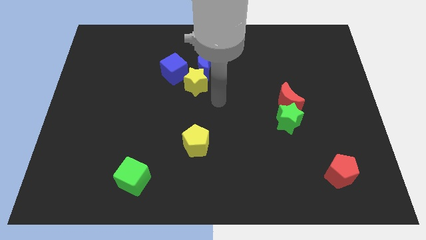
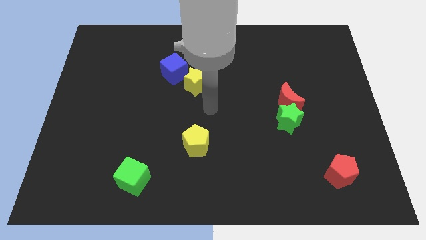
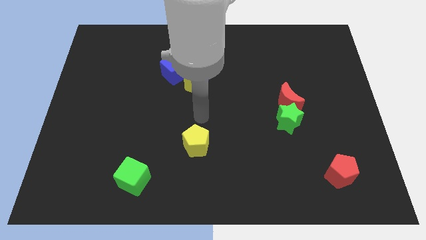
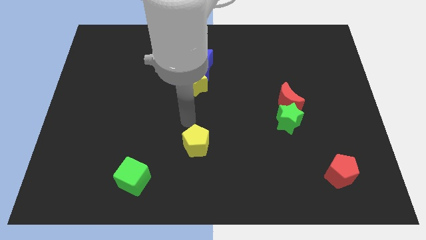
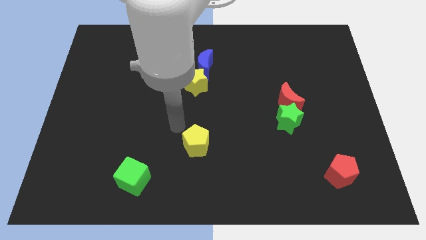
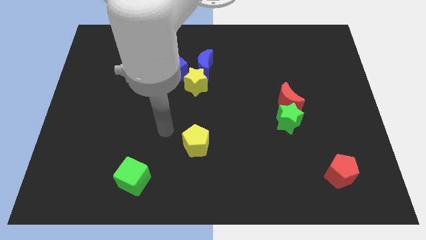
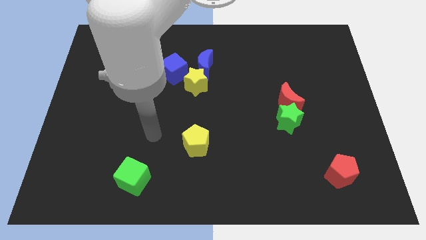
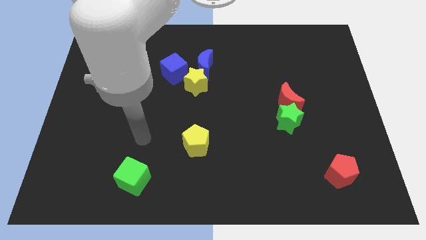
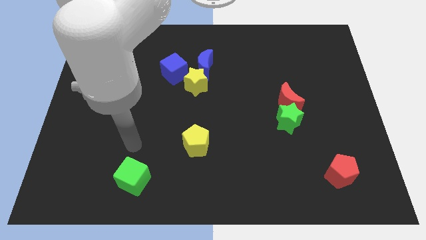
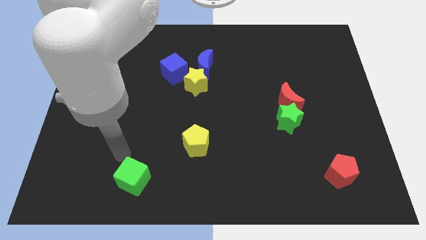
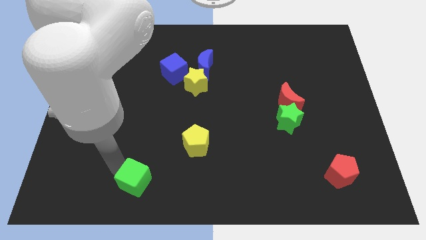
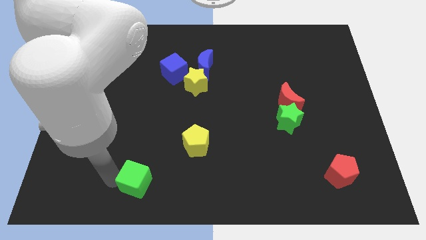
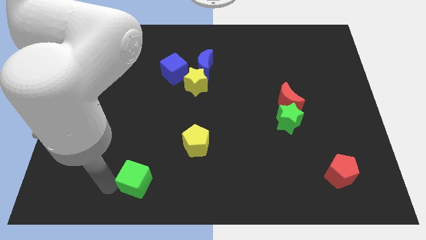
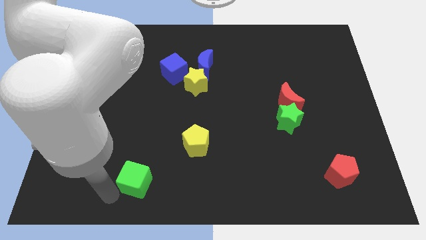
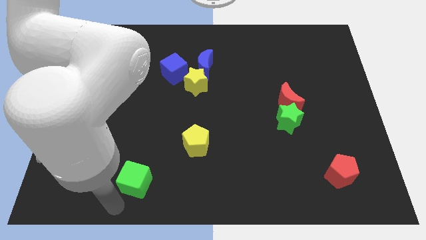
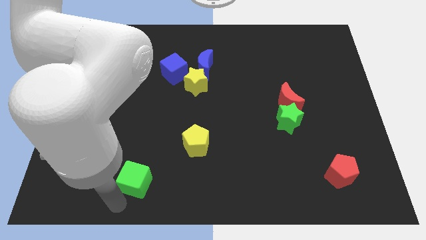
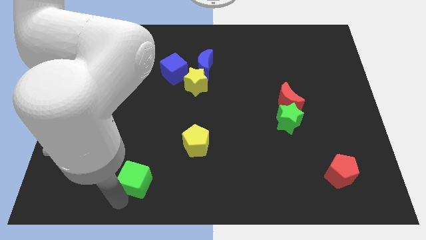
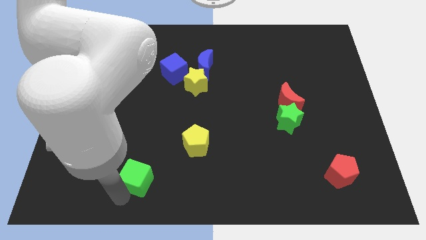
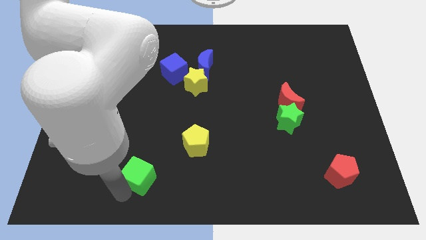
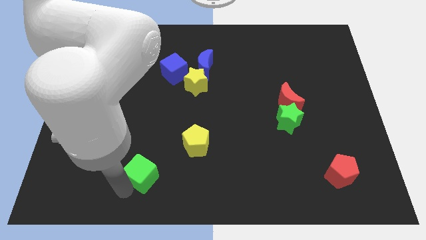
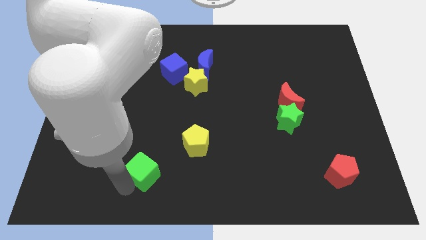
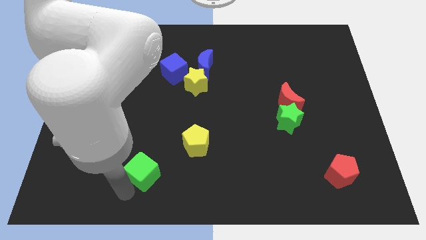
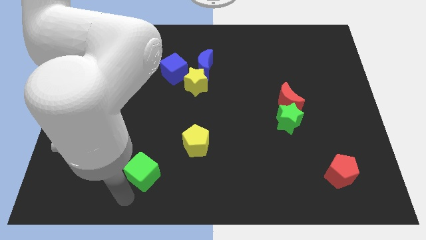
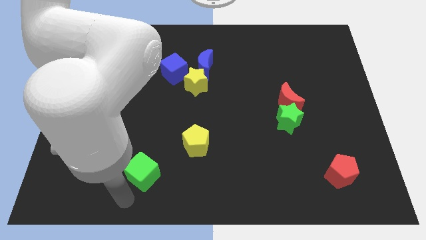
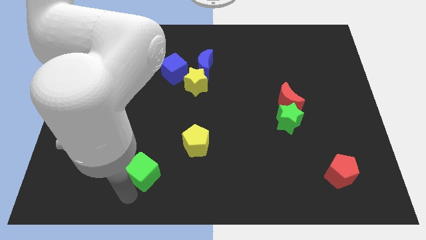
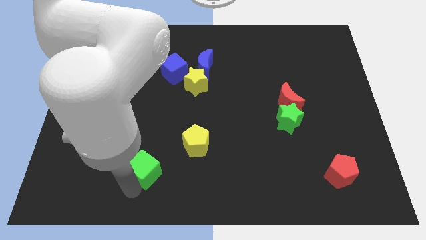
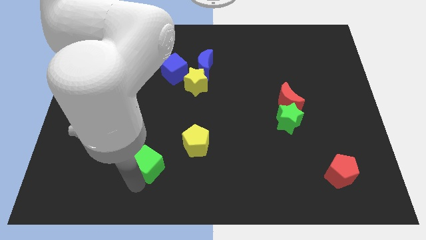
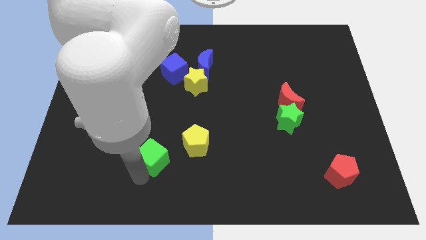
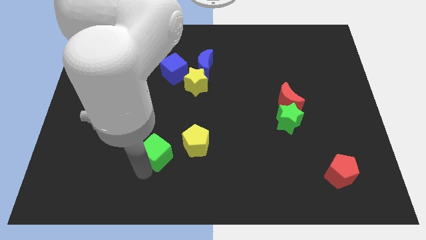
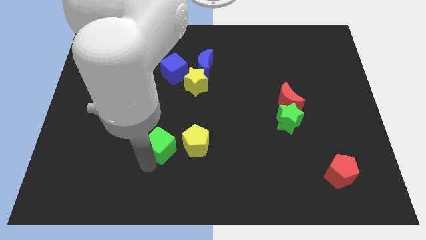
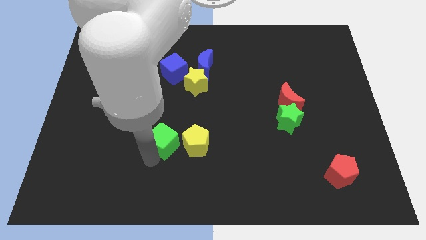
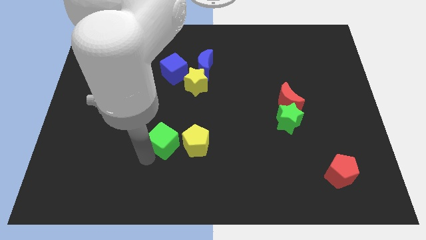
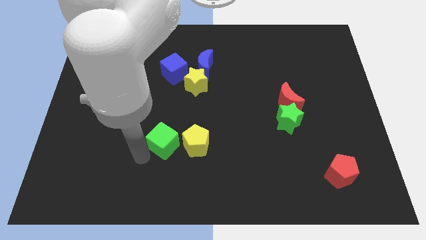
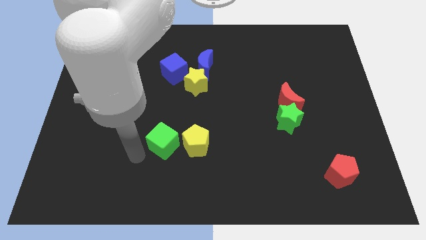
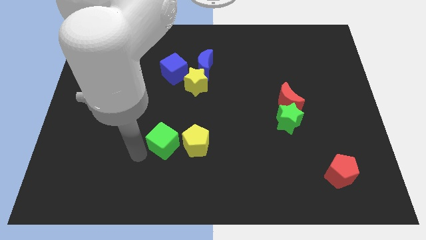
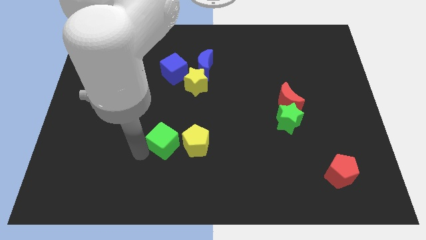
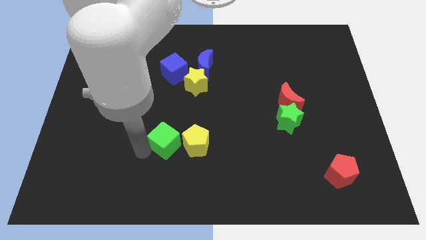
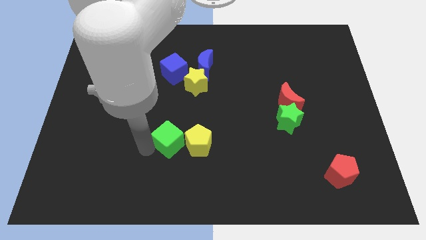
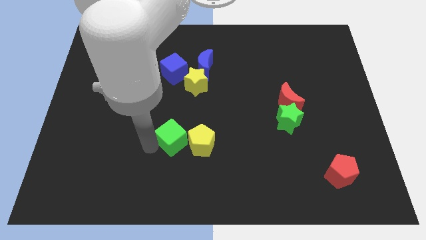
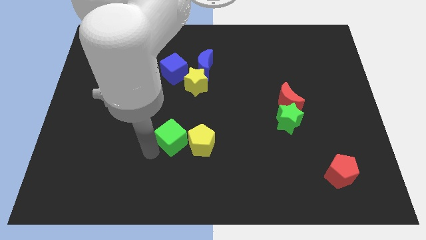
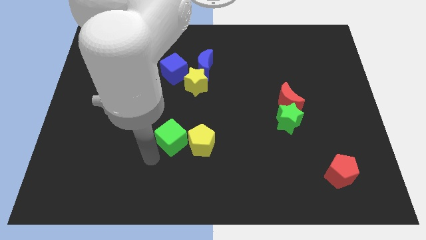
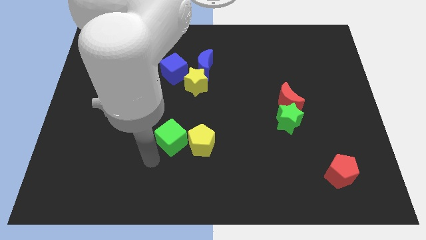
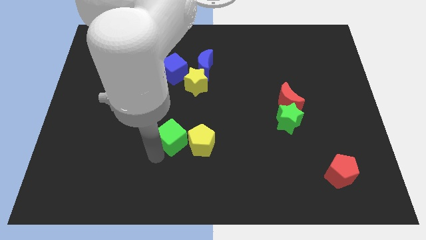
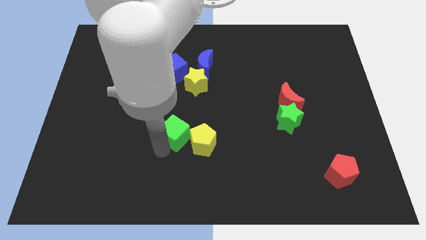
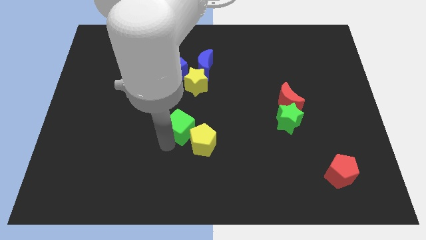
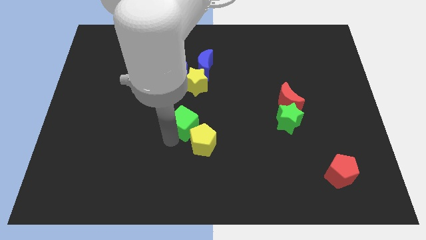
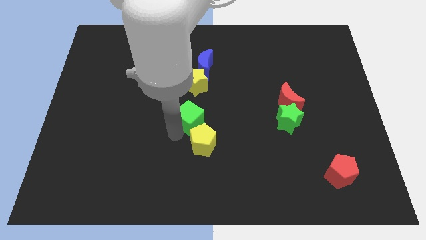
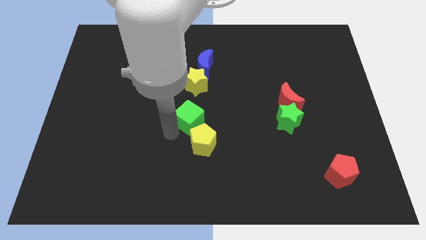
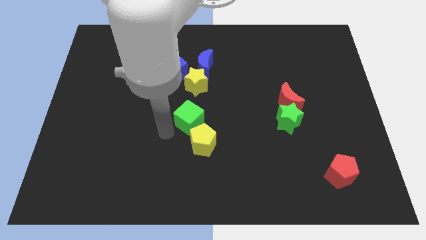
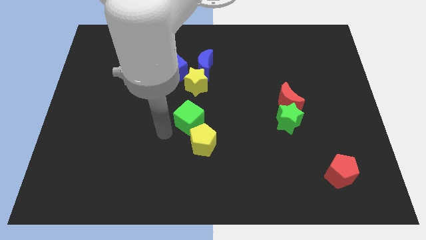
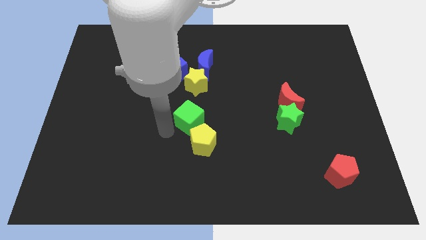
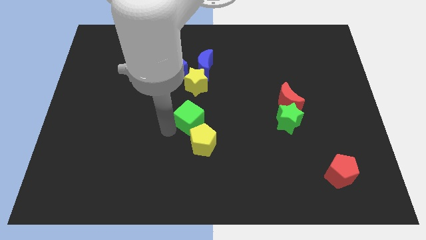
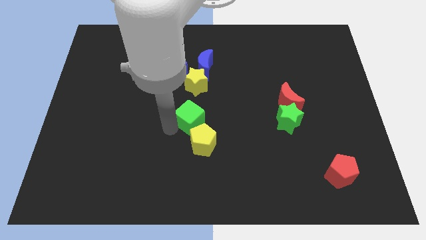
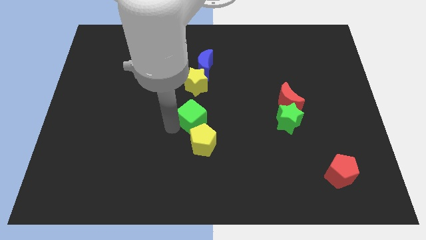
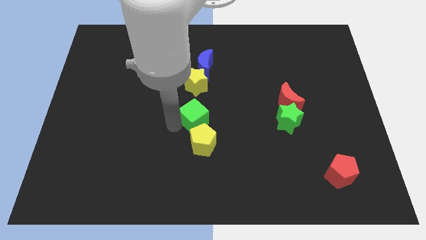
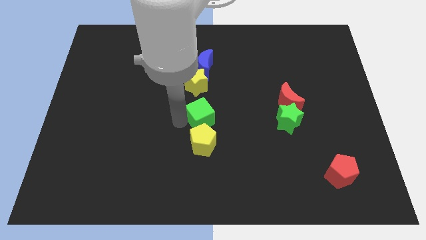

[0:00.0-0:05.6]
push the green cube diagonally upwards and right

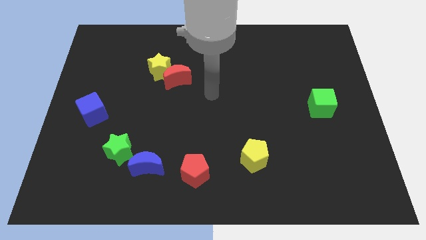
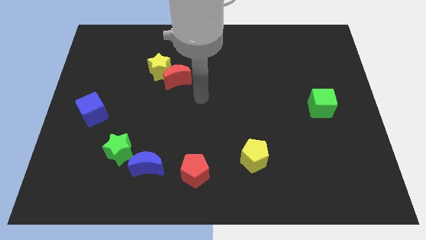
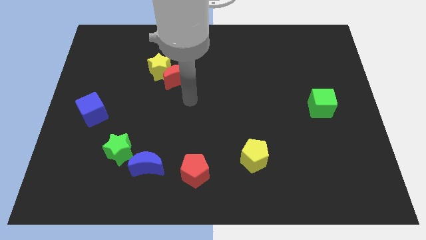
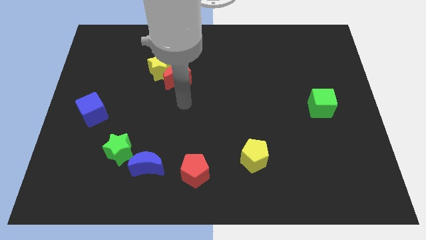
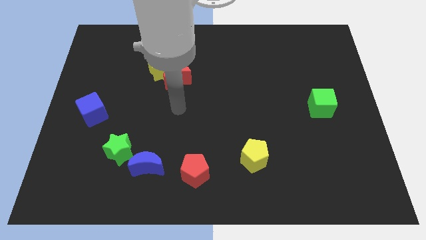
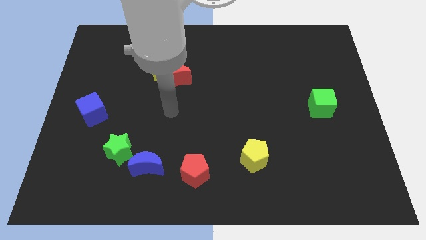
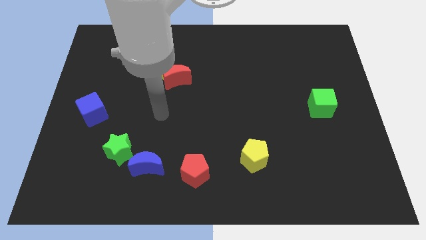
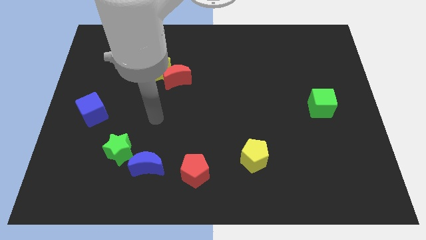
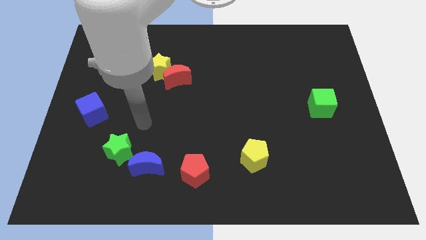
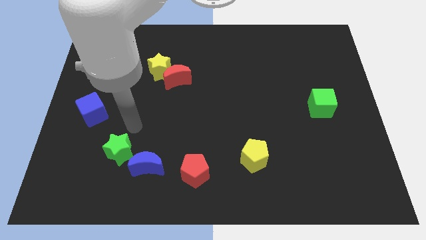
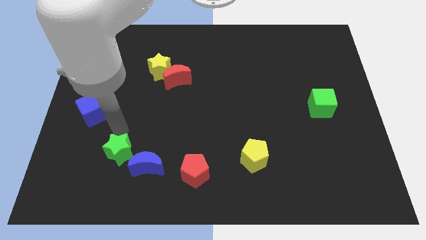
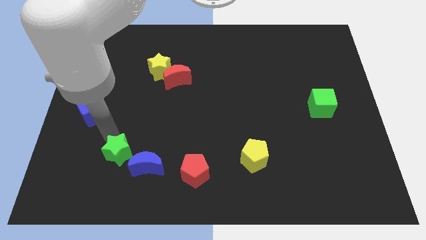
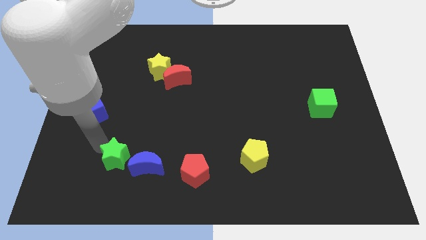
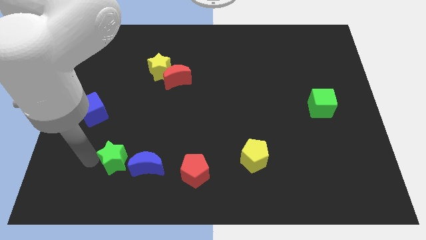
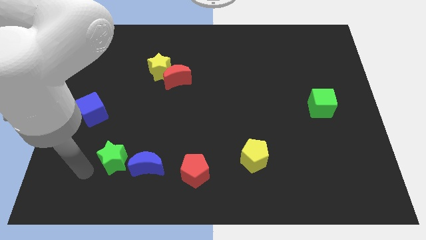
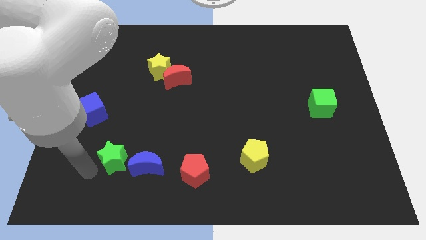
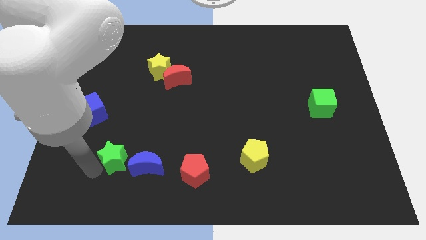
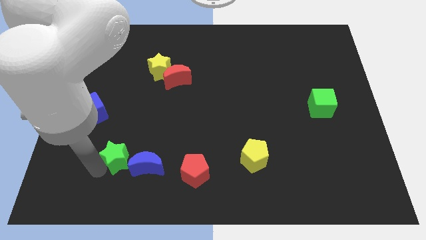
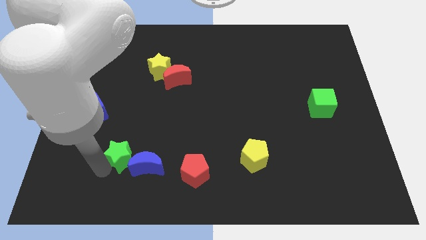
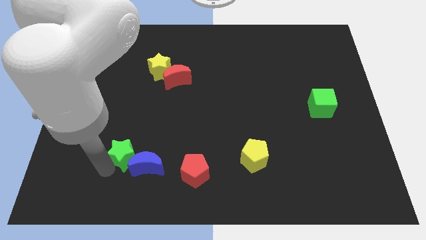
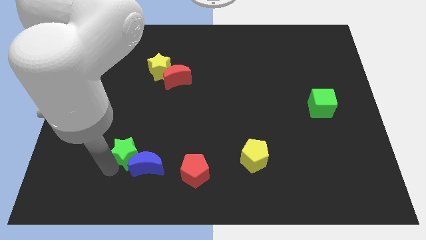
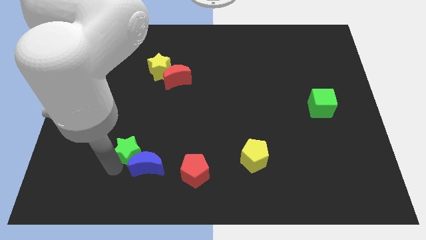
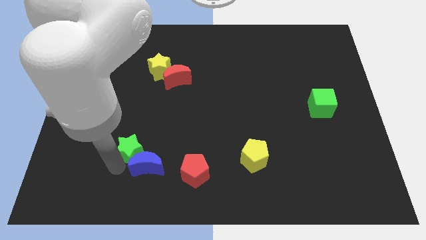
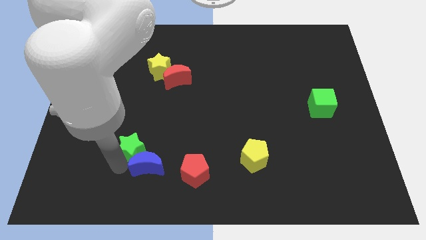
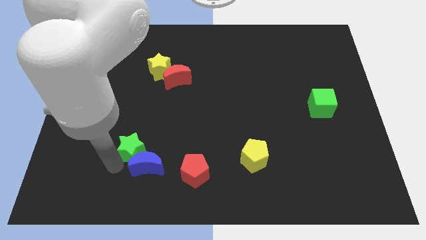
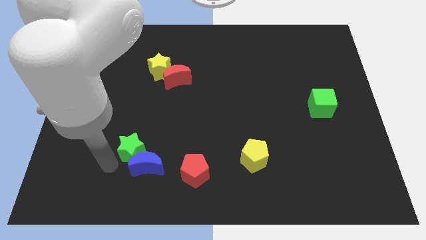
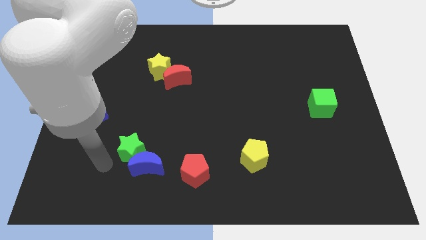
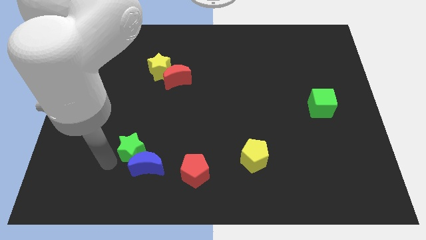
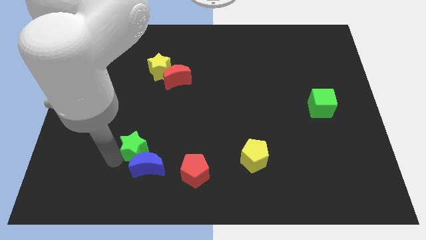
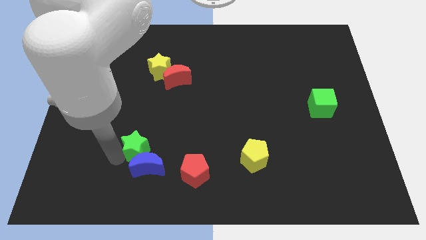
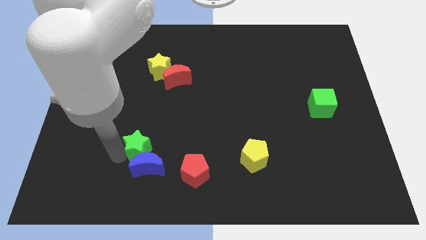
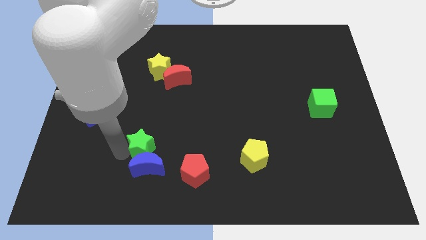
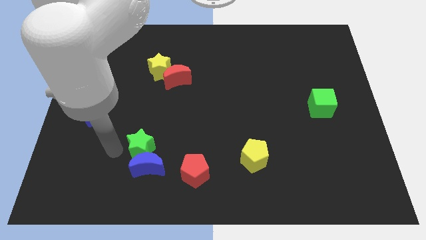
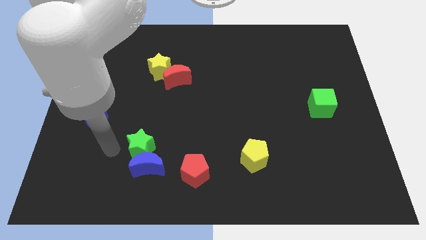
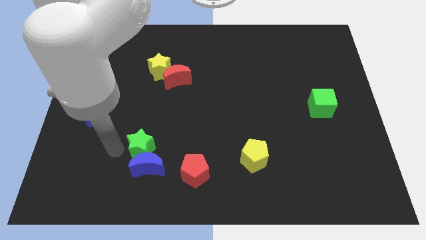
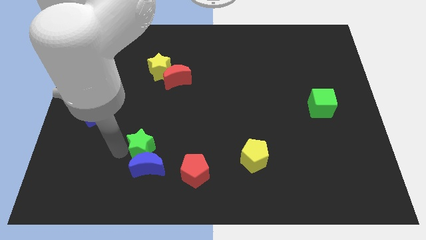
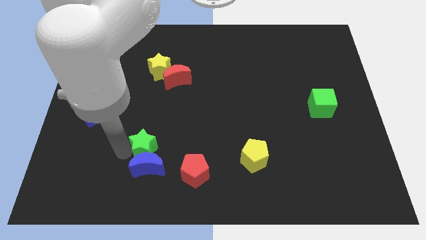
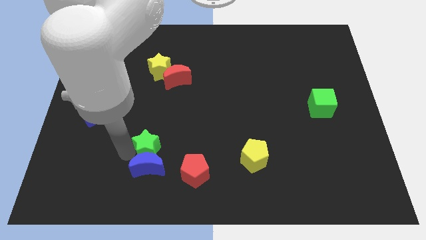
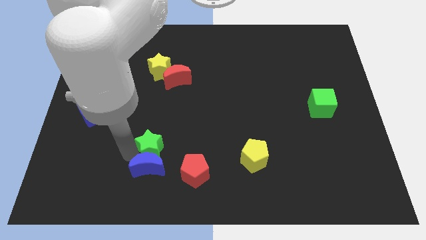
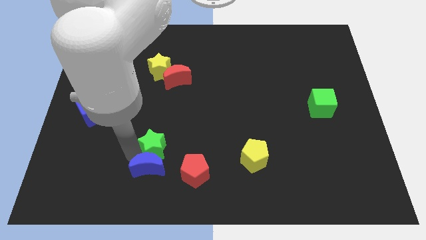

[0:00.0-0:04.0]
move the green star right a little bit
